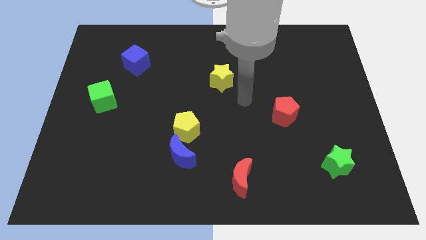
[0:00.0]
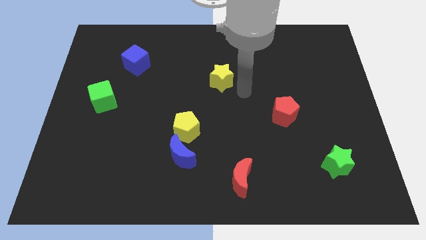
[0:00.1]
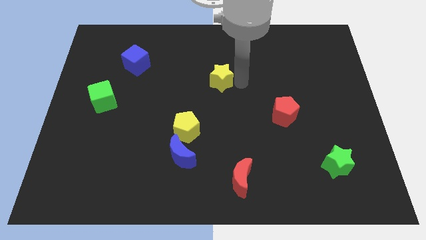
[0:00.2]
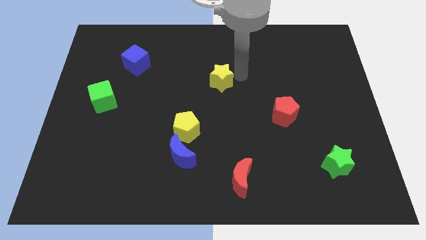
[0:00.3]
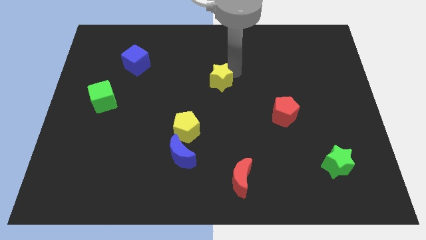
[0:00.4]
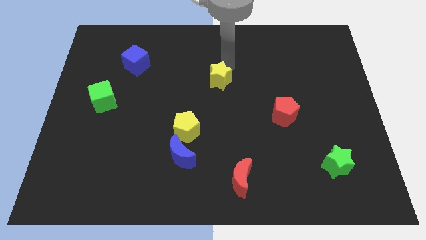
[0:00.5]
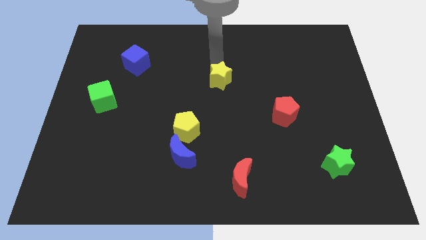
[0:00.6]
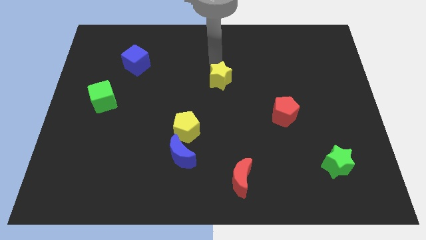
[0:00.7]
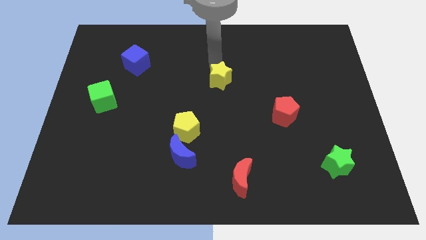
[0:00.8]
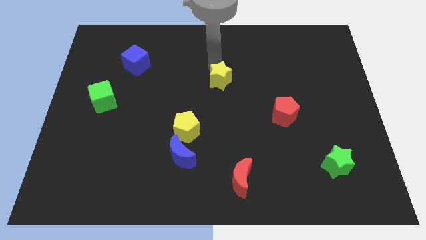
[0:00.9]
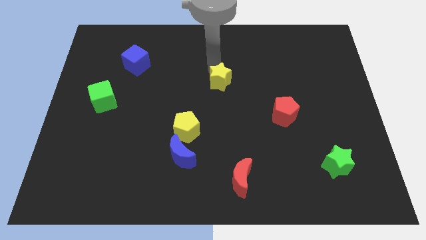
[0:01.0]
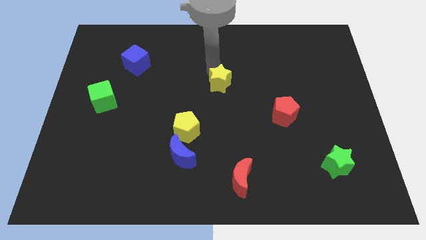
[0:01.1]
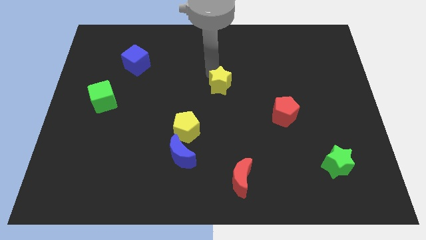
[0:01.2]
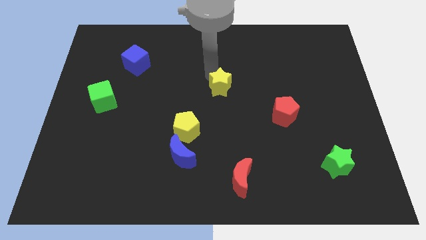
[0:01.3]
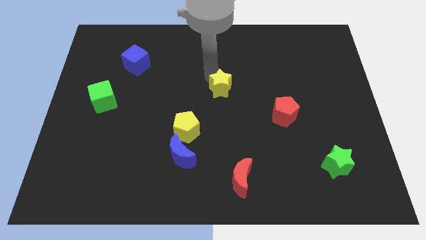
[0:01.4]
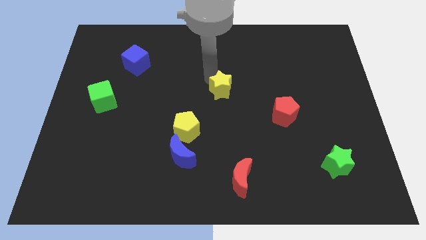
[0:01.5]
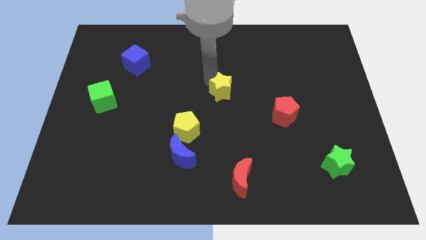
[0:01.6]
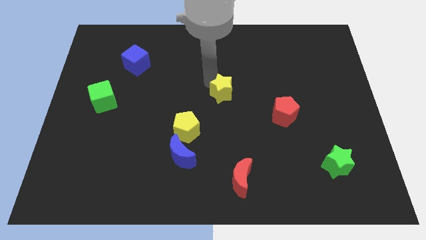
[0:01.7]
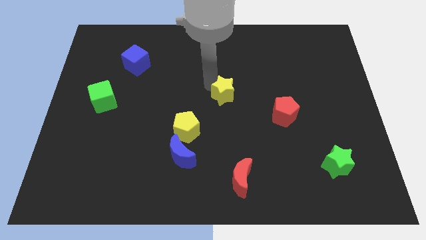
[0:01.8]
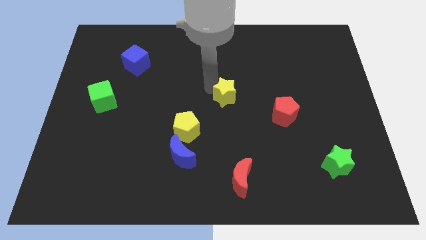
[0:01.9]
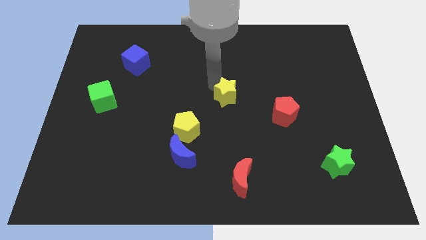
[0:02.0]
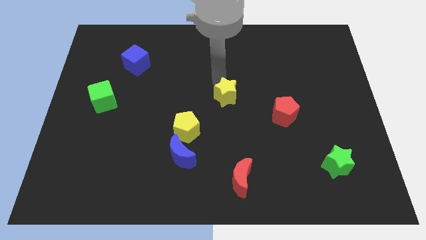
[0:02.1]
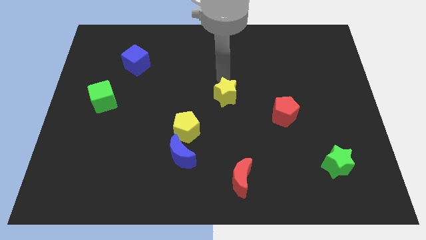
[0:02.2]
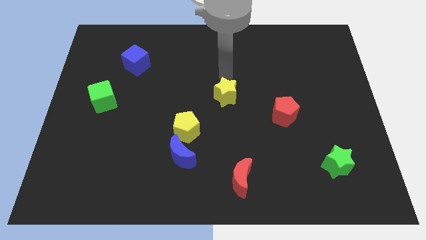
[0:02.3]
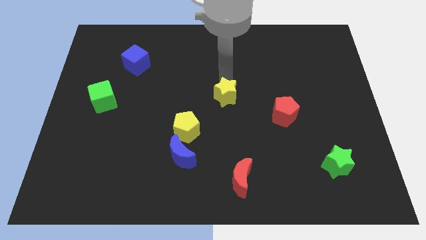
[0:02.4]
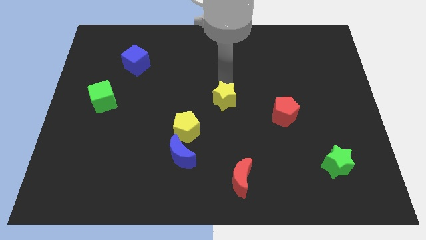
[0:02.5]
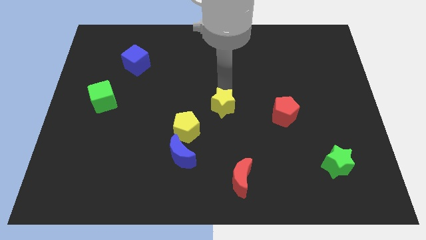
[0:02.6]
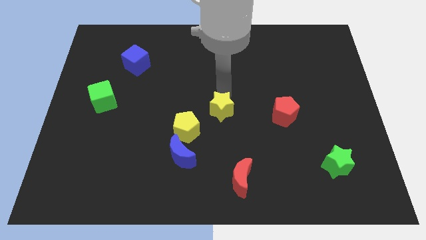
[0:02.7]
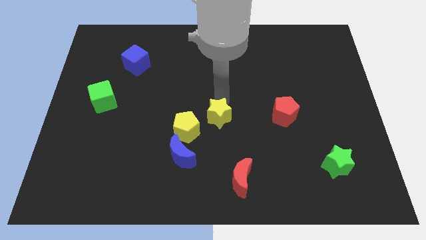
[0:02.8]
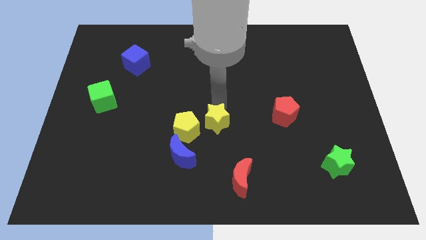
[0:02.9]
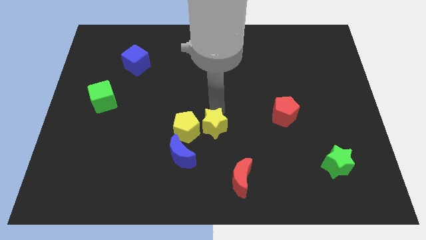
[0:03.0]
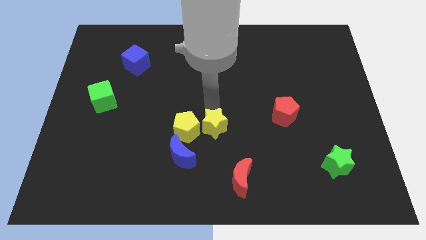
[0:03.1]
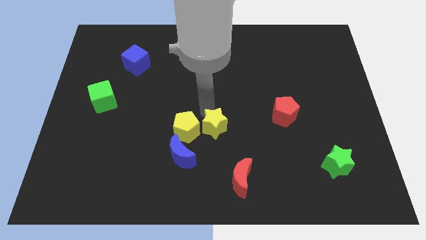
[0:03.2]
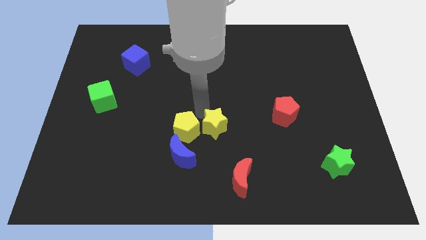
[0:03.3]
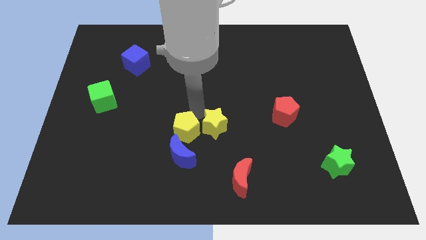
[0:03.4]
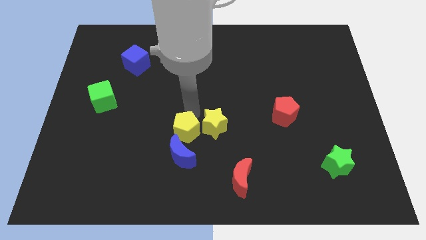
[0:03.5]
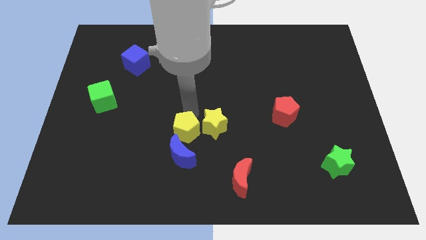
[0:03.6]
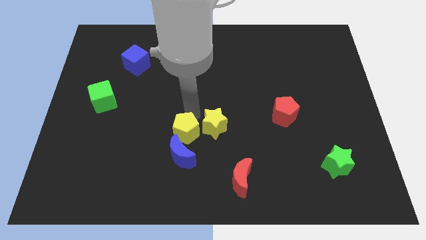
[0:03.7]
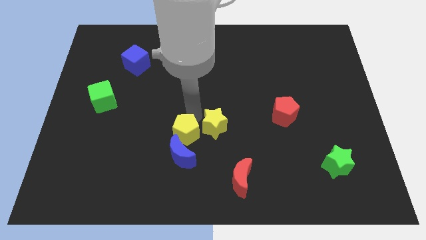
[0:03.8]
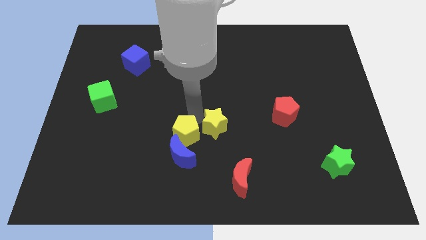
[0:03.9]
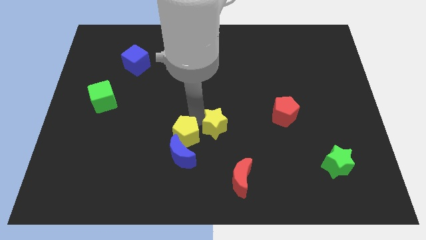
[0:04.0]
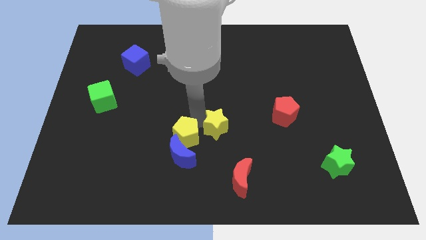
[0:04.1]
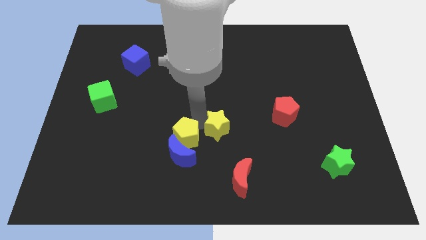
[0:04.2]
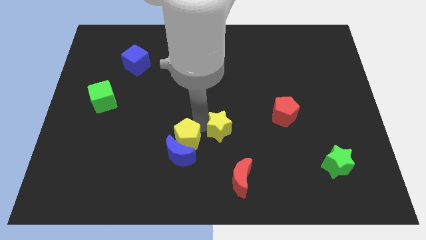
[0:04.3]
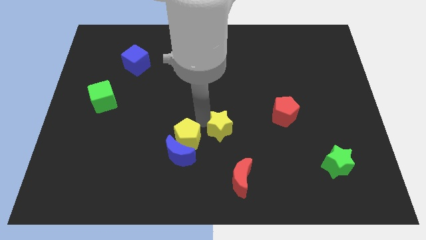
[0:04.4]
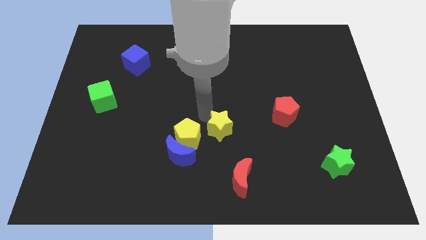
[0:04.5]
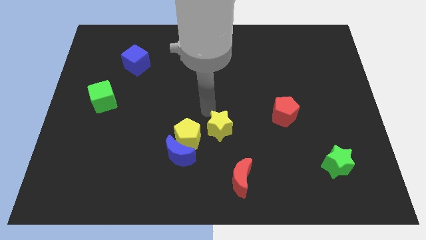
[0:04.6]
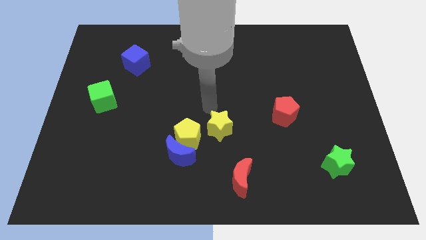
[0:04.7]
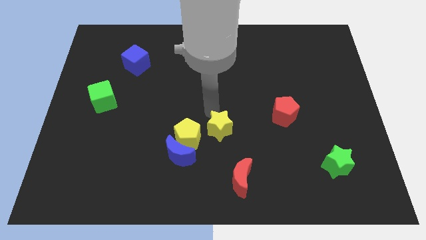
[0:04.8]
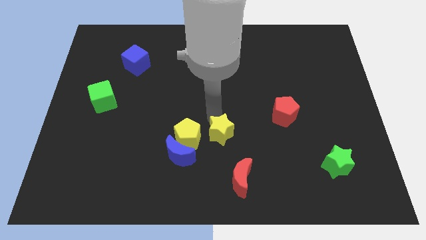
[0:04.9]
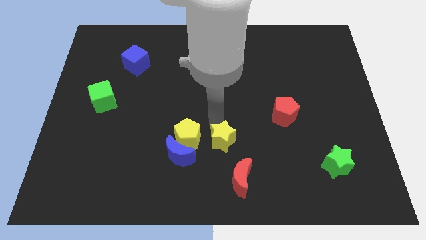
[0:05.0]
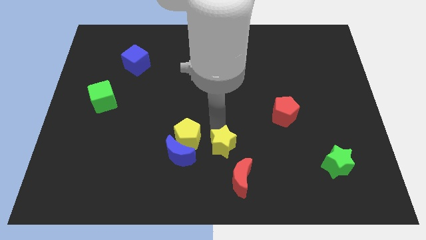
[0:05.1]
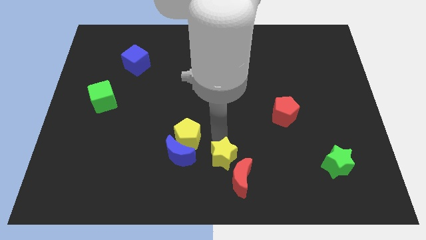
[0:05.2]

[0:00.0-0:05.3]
move the yellow star close to the red moon

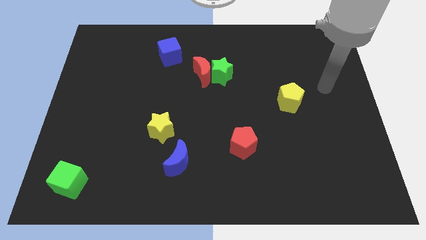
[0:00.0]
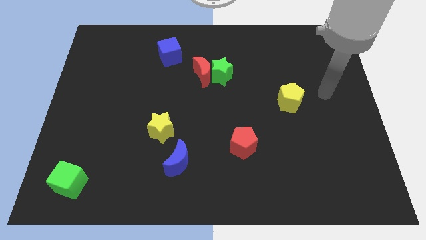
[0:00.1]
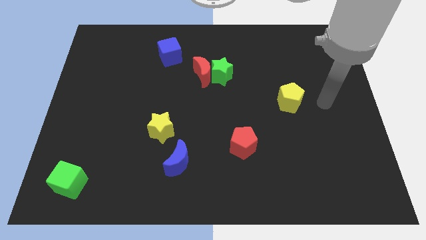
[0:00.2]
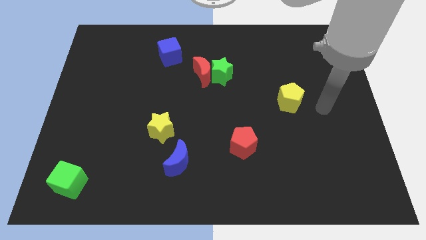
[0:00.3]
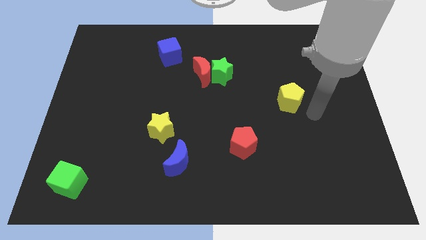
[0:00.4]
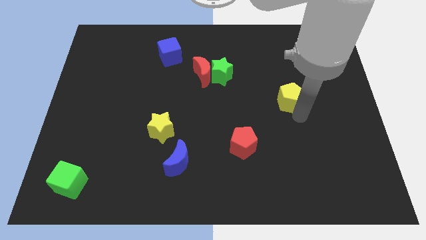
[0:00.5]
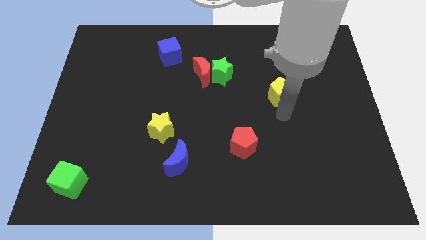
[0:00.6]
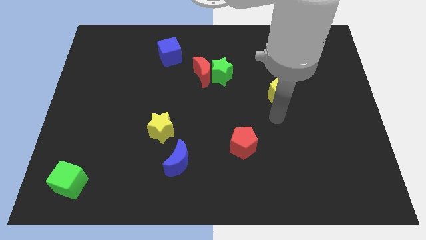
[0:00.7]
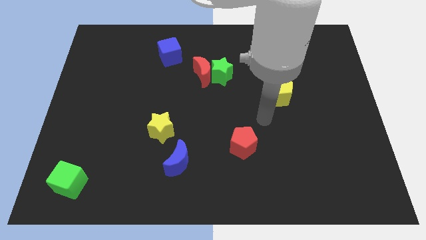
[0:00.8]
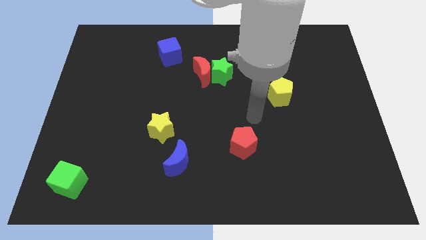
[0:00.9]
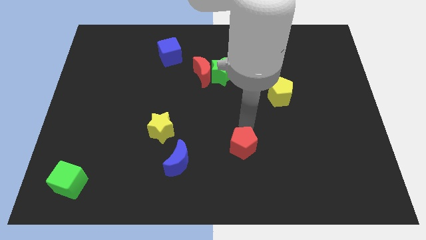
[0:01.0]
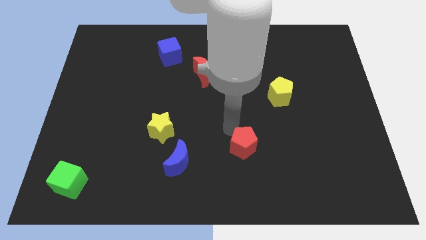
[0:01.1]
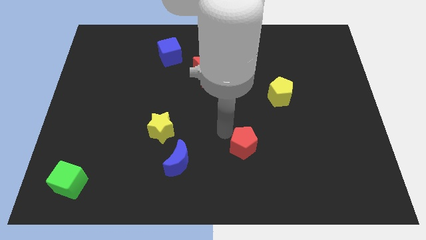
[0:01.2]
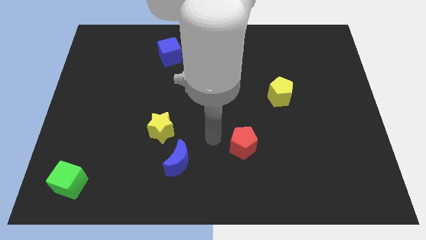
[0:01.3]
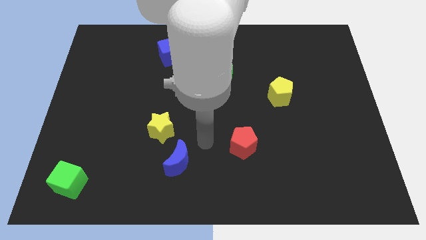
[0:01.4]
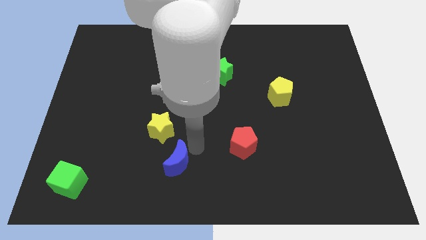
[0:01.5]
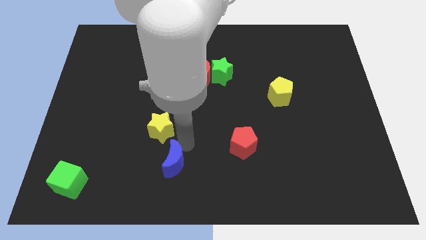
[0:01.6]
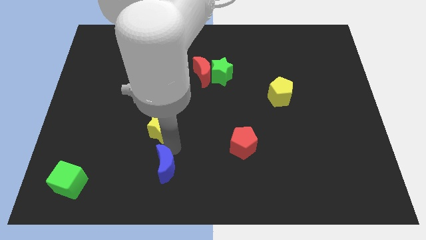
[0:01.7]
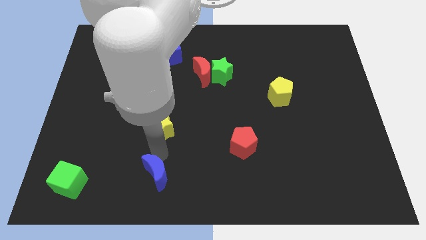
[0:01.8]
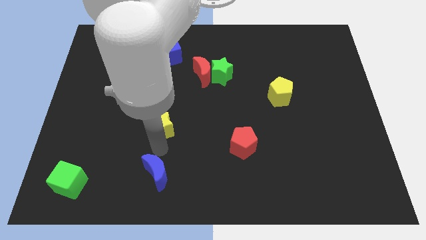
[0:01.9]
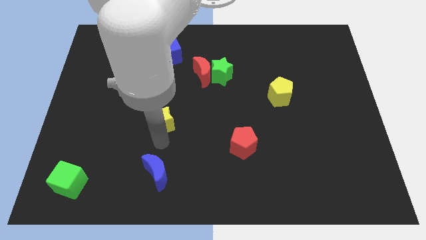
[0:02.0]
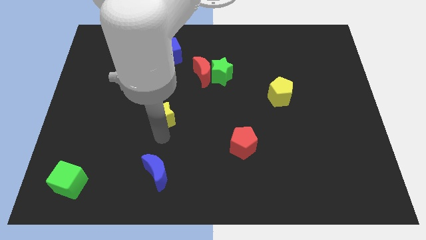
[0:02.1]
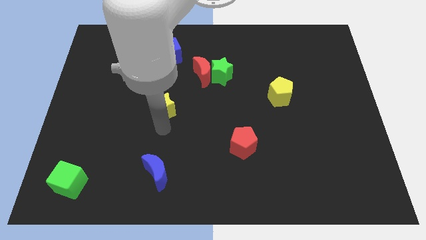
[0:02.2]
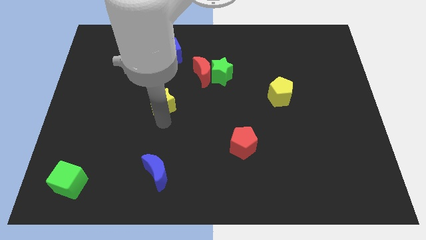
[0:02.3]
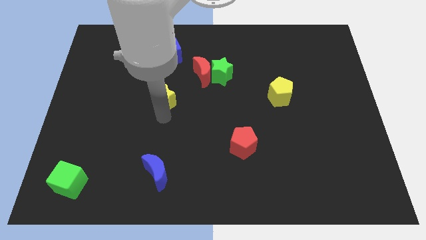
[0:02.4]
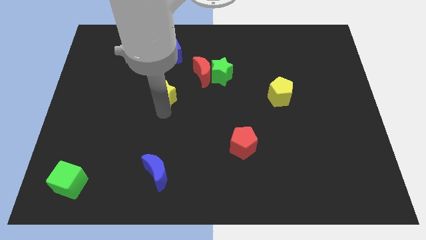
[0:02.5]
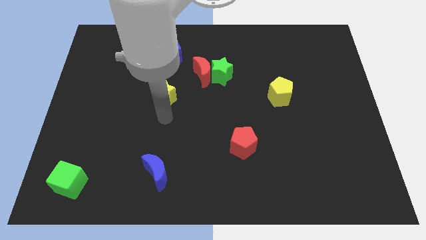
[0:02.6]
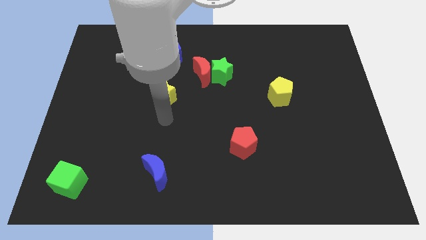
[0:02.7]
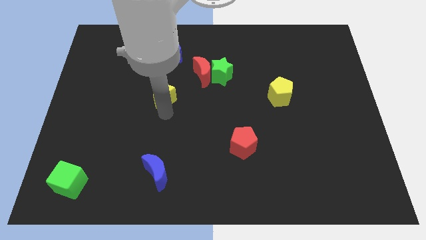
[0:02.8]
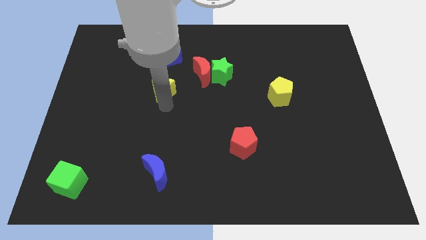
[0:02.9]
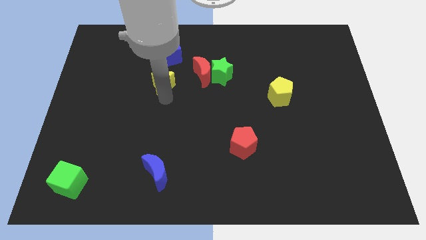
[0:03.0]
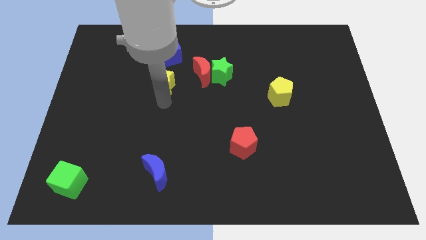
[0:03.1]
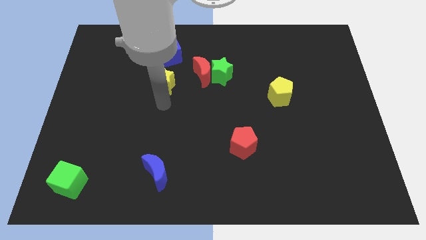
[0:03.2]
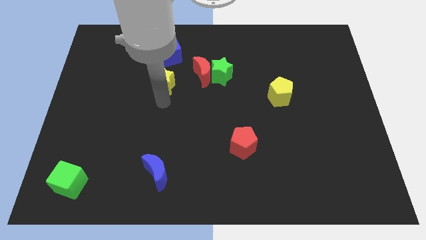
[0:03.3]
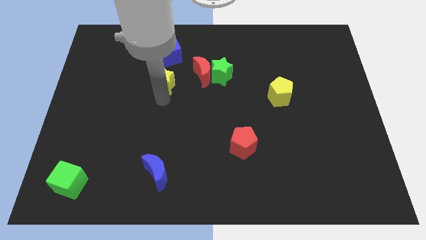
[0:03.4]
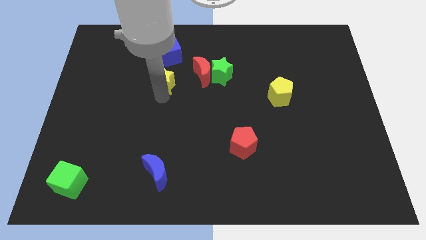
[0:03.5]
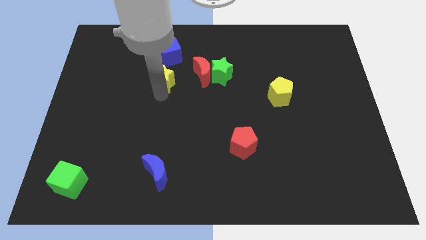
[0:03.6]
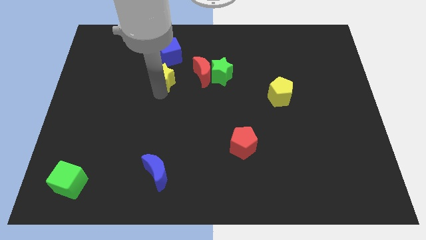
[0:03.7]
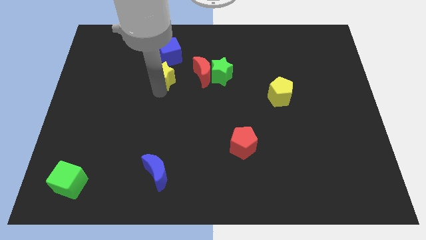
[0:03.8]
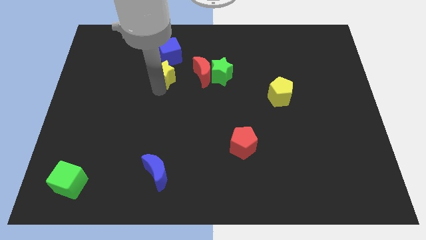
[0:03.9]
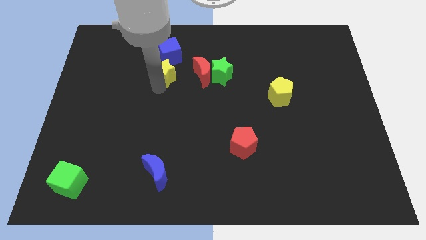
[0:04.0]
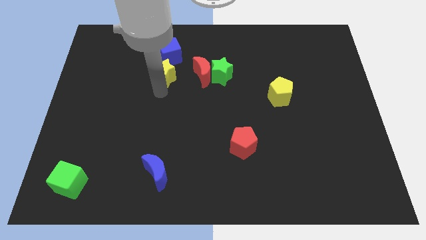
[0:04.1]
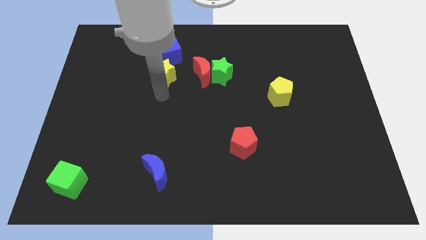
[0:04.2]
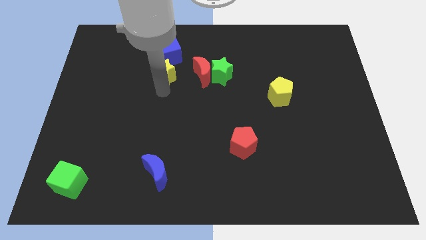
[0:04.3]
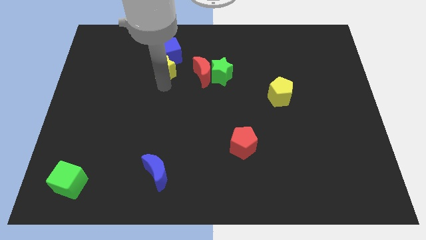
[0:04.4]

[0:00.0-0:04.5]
push the yellow star towards the blue cube
